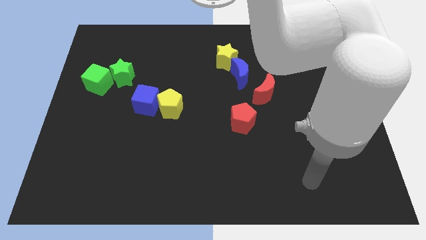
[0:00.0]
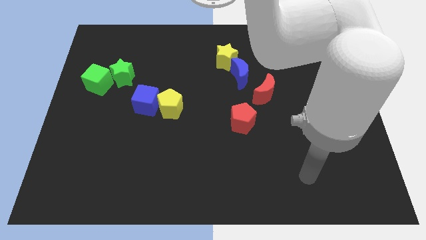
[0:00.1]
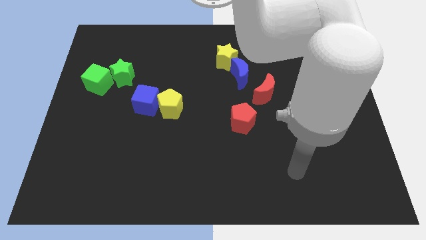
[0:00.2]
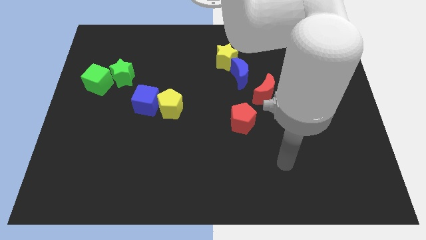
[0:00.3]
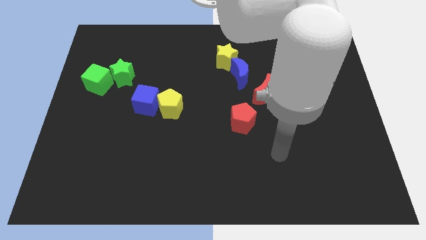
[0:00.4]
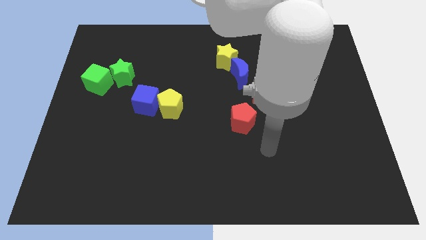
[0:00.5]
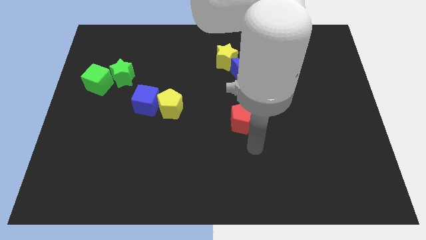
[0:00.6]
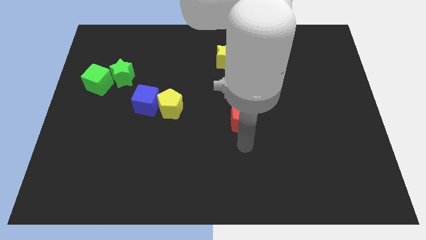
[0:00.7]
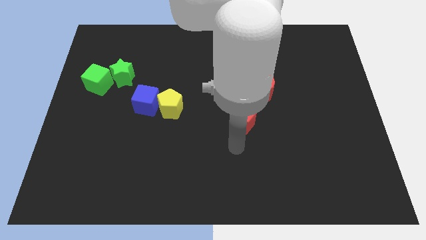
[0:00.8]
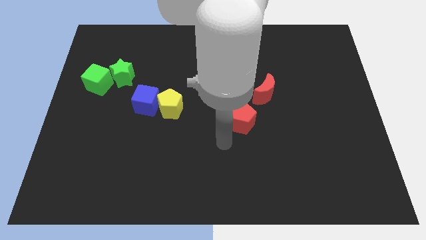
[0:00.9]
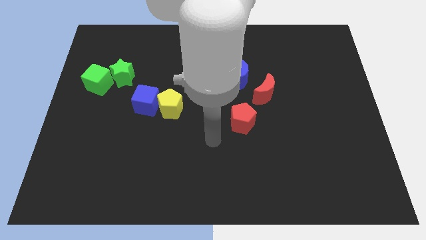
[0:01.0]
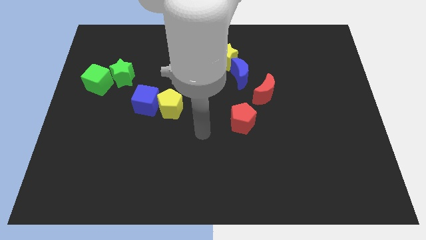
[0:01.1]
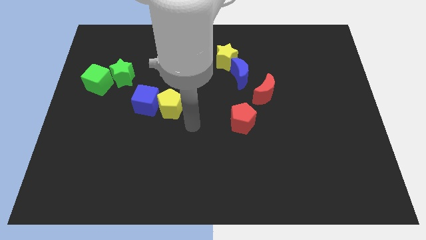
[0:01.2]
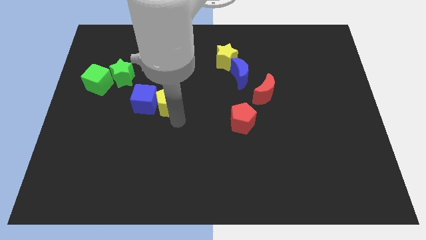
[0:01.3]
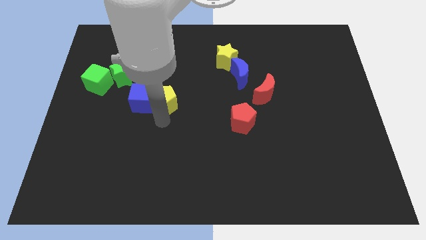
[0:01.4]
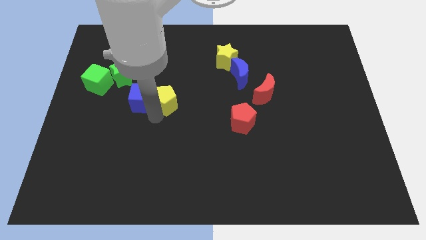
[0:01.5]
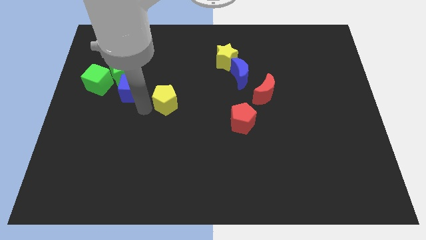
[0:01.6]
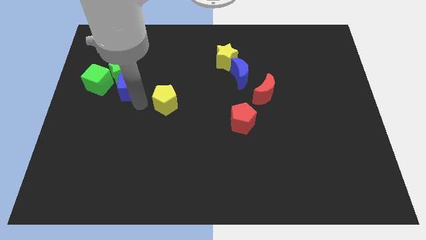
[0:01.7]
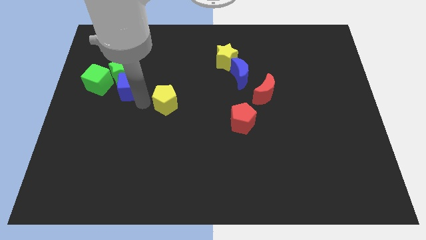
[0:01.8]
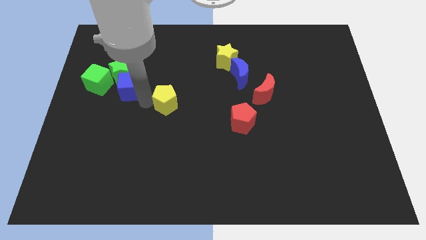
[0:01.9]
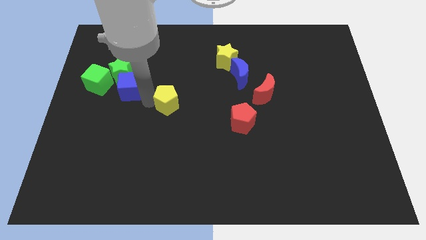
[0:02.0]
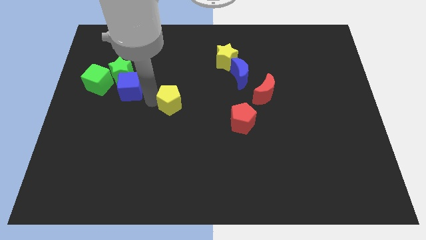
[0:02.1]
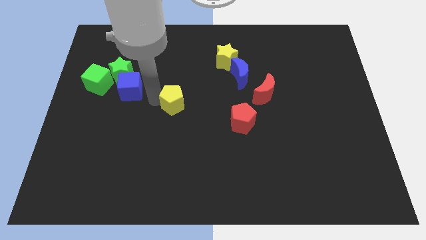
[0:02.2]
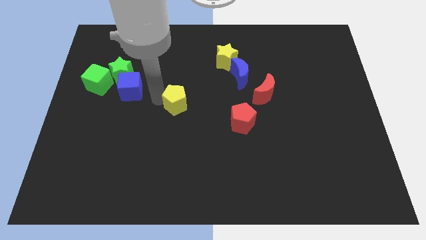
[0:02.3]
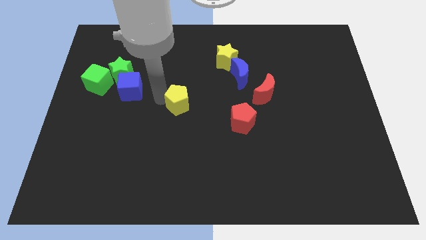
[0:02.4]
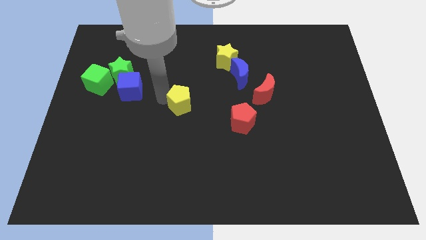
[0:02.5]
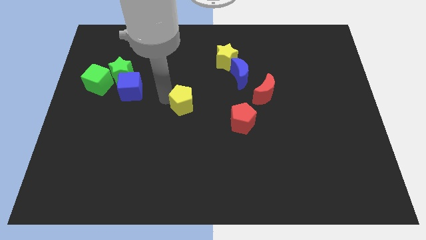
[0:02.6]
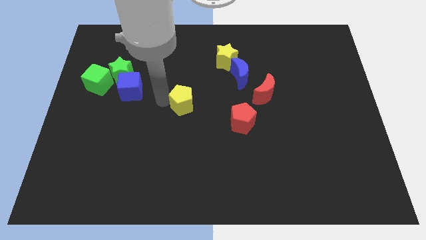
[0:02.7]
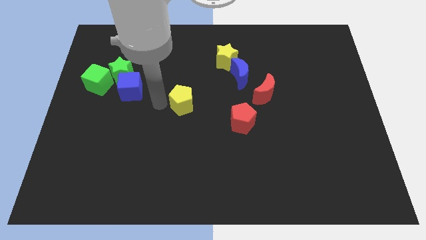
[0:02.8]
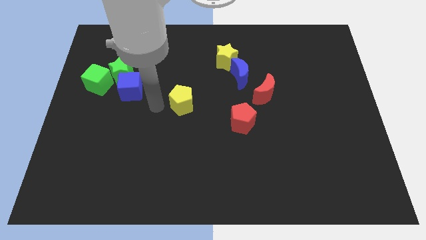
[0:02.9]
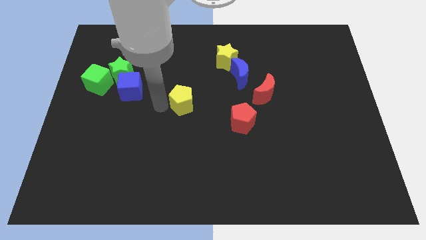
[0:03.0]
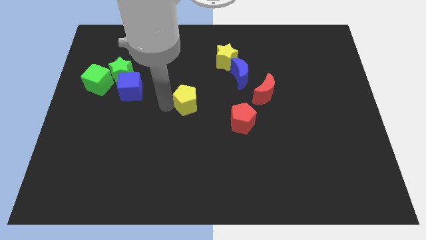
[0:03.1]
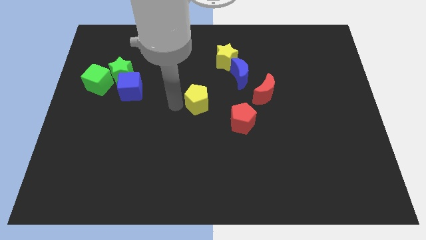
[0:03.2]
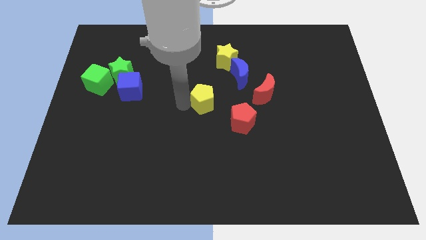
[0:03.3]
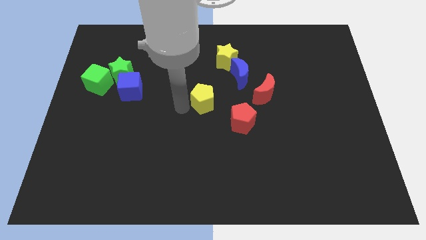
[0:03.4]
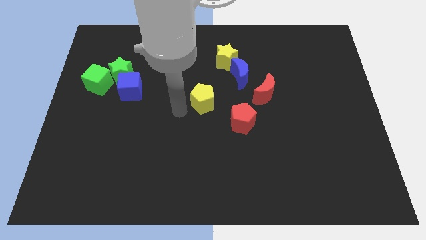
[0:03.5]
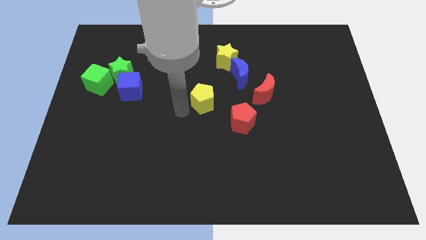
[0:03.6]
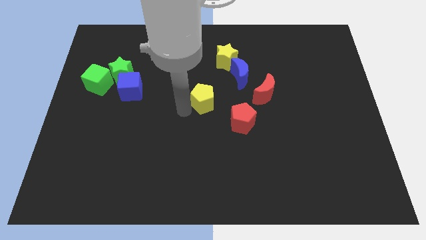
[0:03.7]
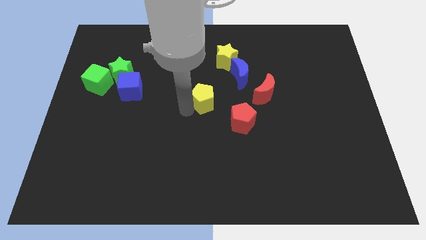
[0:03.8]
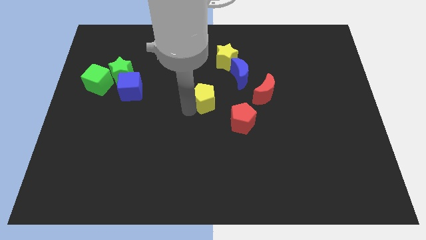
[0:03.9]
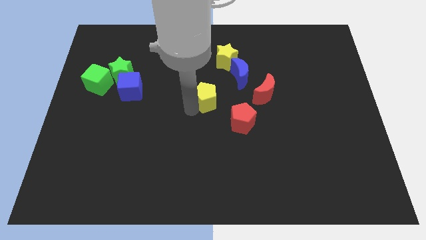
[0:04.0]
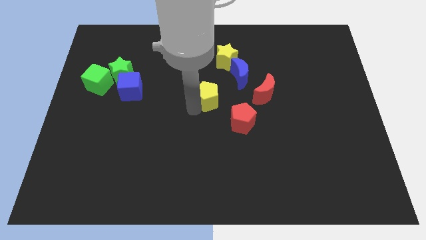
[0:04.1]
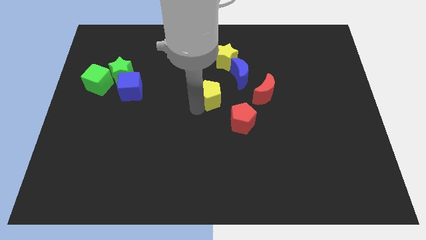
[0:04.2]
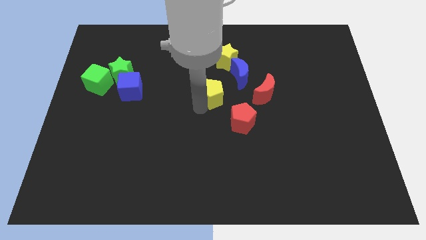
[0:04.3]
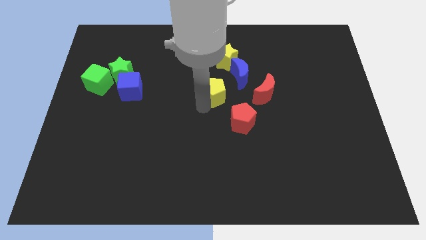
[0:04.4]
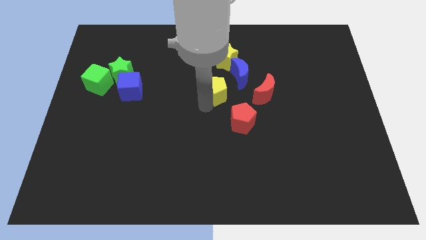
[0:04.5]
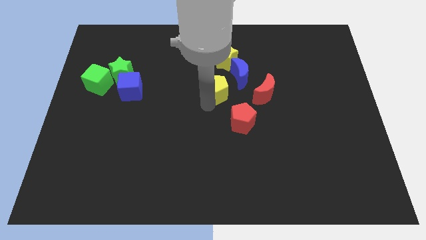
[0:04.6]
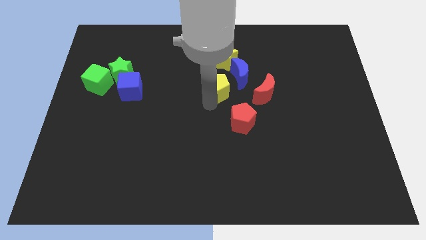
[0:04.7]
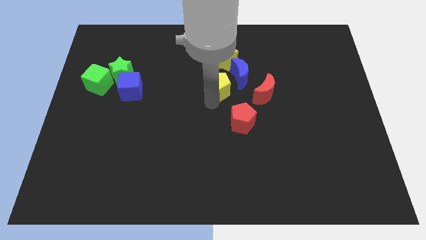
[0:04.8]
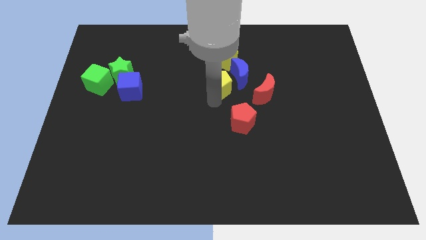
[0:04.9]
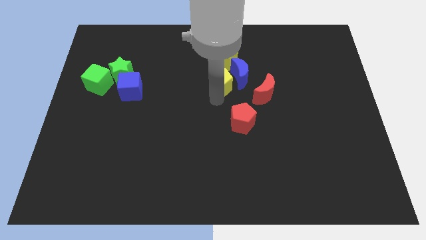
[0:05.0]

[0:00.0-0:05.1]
move the yellow pentagon next to the blue moon

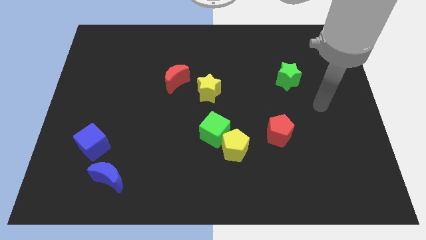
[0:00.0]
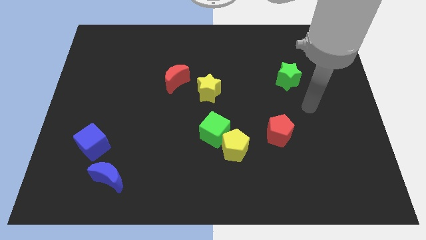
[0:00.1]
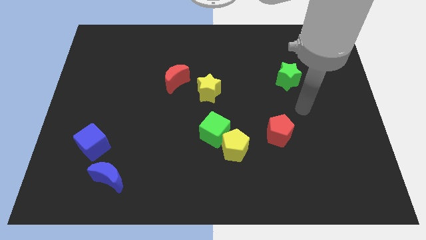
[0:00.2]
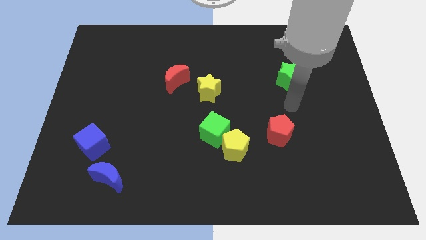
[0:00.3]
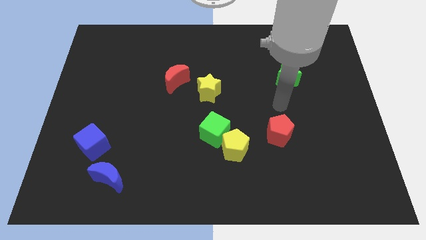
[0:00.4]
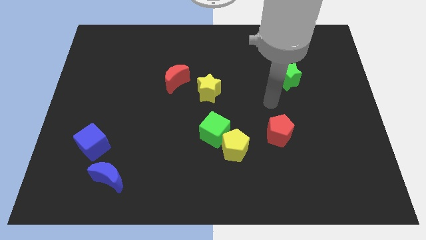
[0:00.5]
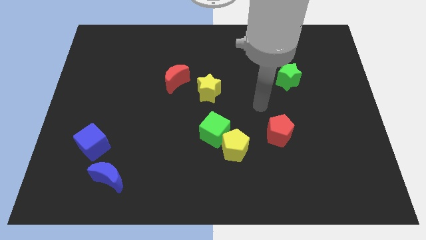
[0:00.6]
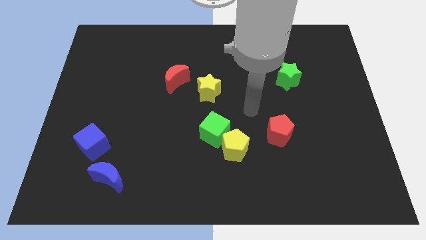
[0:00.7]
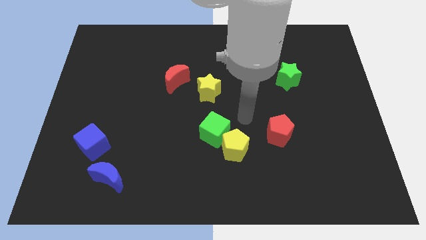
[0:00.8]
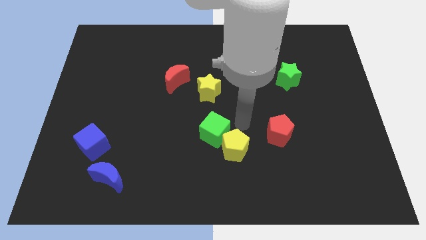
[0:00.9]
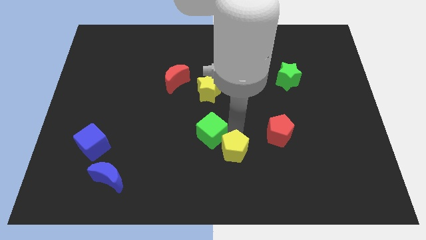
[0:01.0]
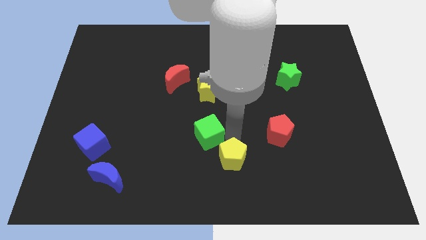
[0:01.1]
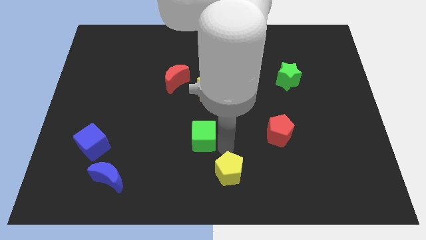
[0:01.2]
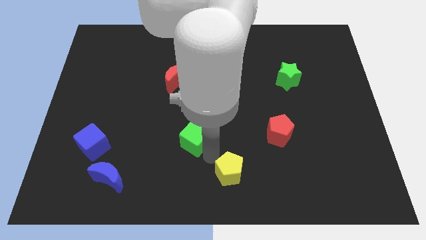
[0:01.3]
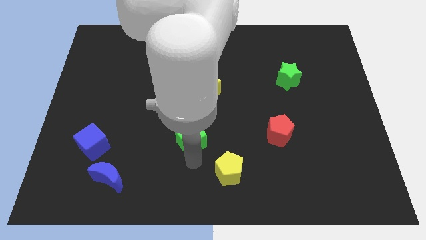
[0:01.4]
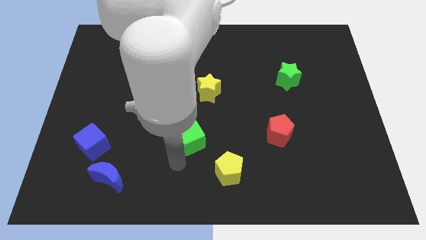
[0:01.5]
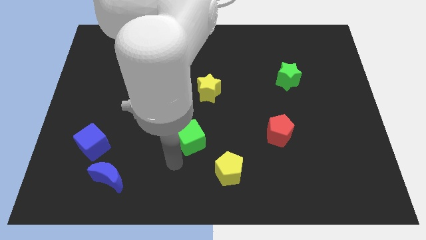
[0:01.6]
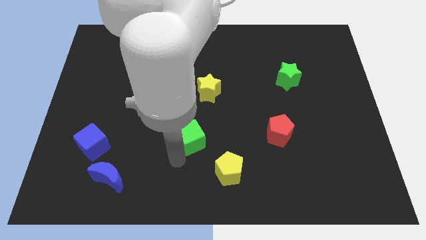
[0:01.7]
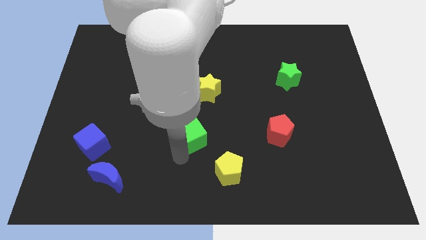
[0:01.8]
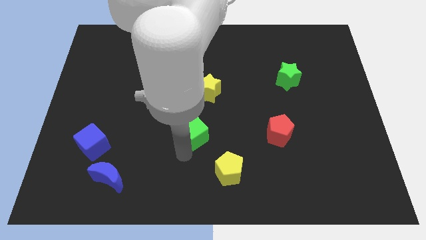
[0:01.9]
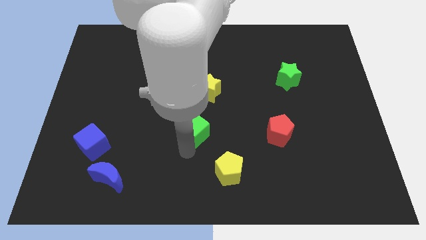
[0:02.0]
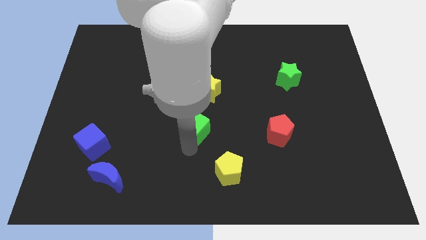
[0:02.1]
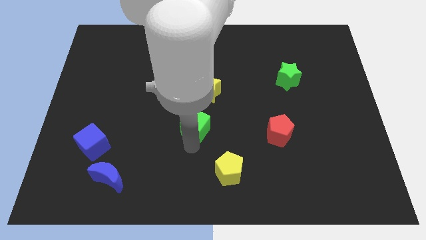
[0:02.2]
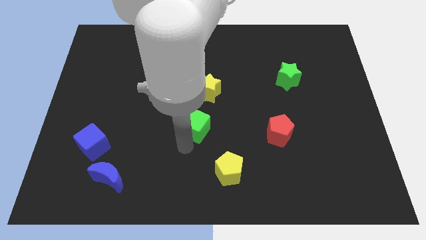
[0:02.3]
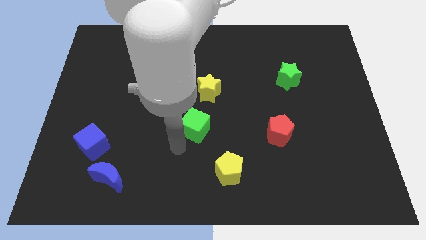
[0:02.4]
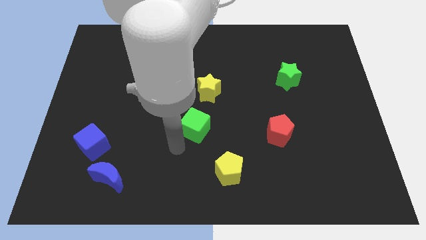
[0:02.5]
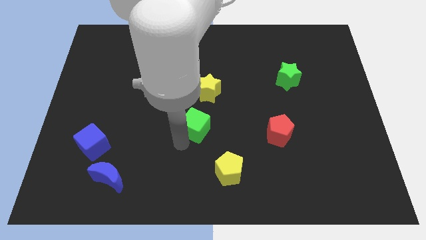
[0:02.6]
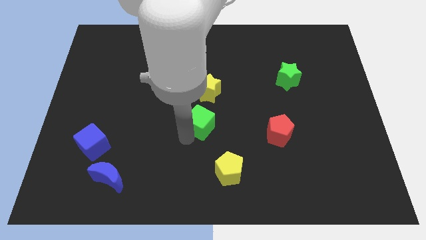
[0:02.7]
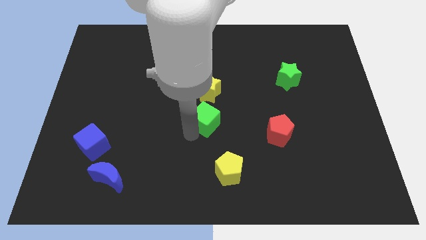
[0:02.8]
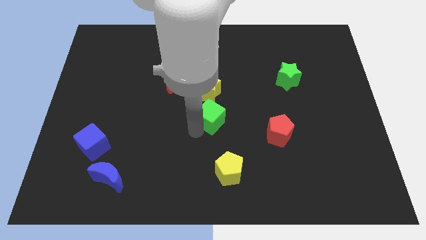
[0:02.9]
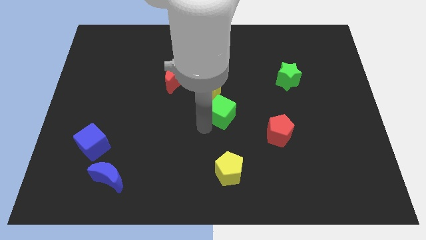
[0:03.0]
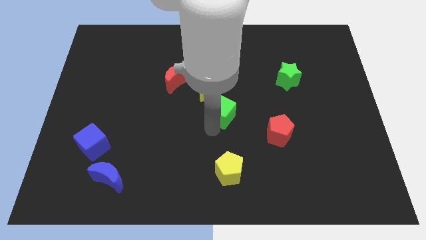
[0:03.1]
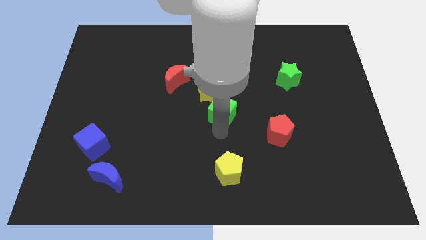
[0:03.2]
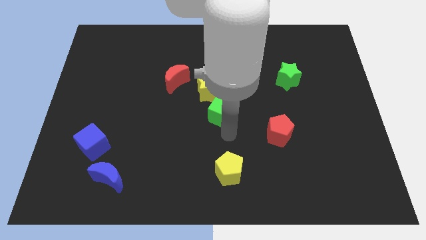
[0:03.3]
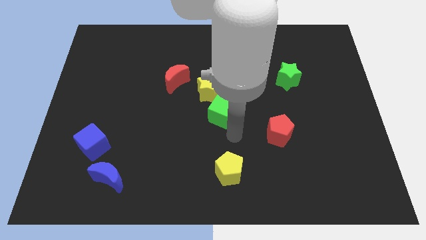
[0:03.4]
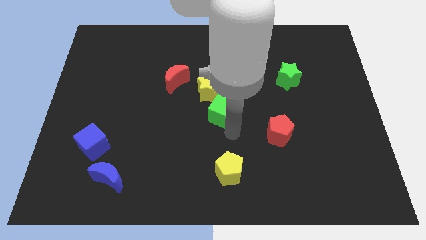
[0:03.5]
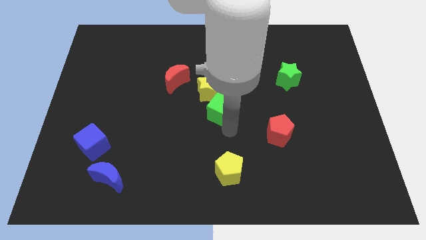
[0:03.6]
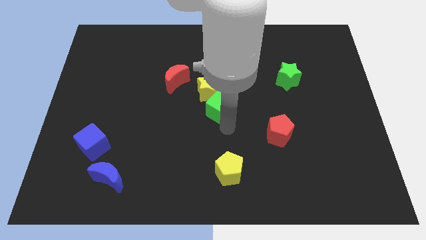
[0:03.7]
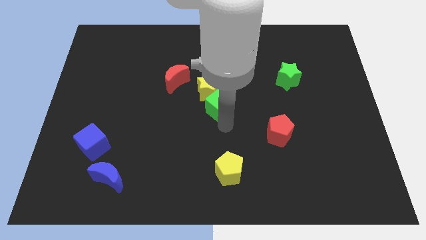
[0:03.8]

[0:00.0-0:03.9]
put the green cube close to the yellow star
